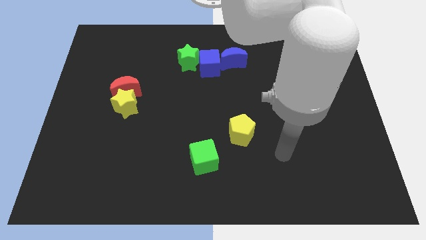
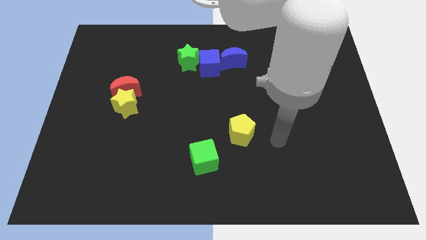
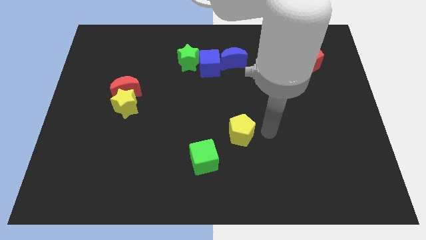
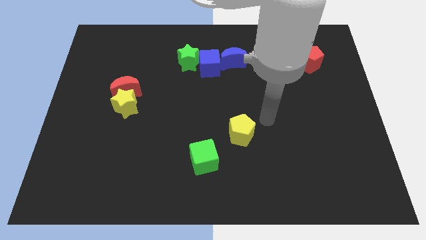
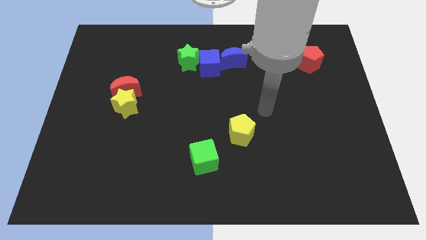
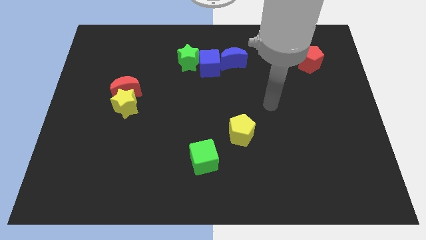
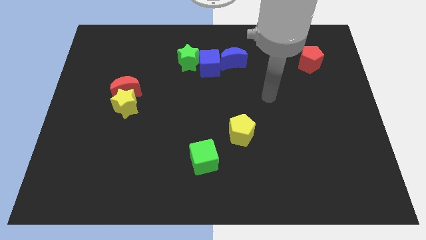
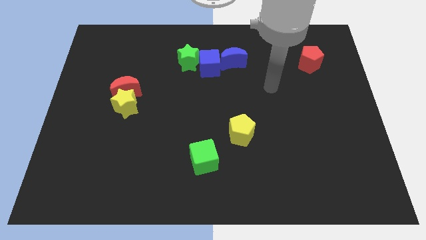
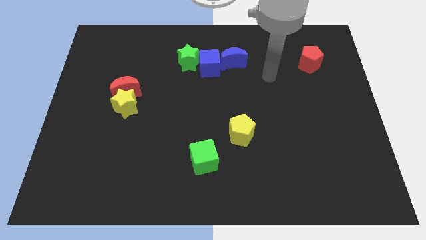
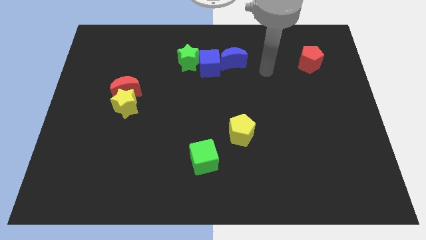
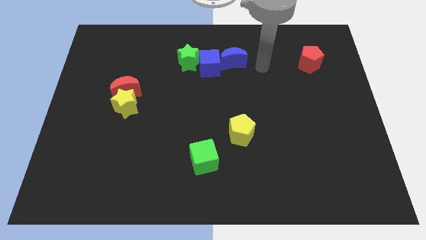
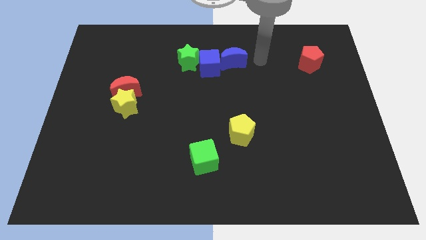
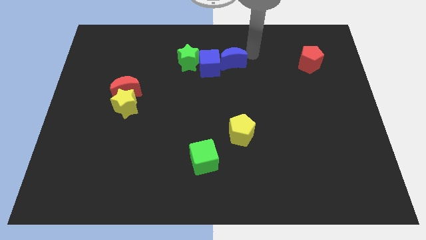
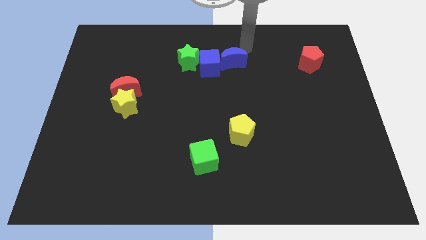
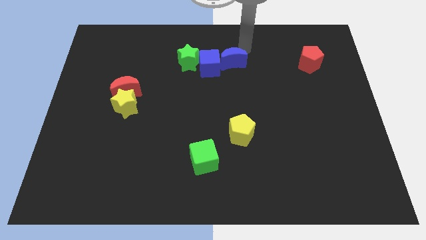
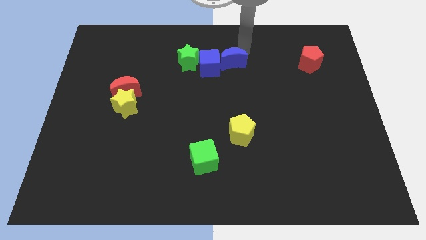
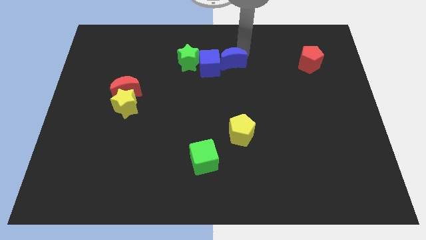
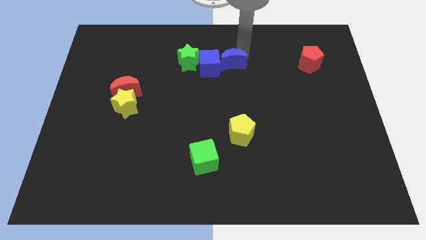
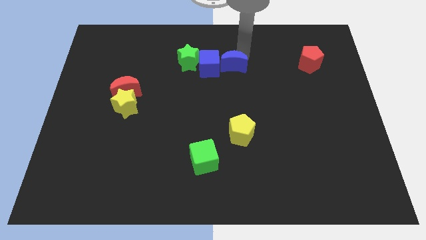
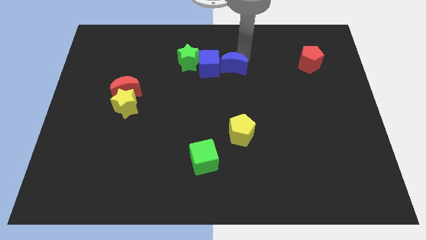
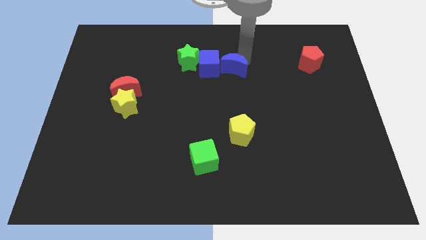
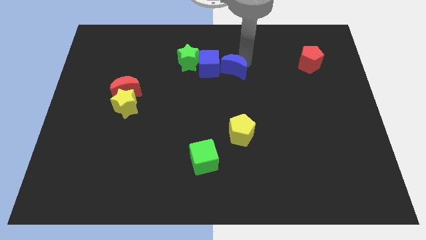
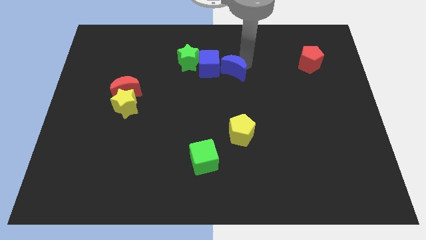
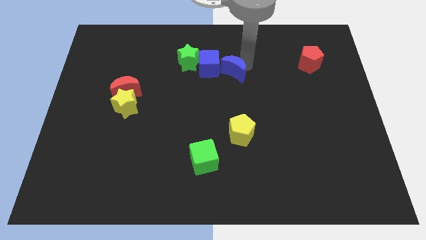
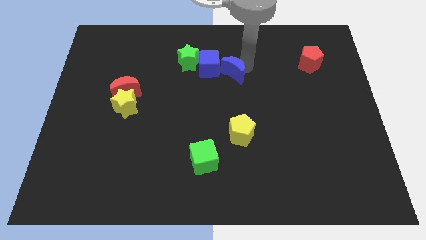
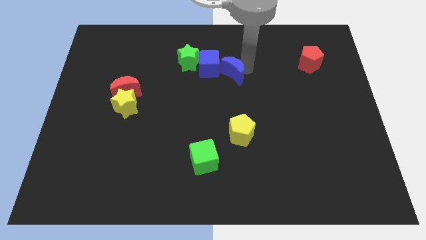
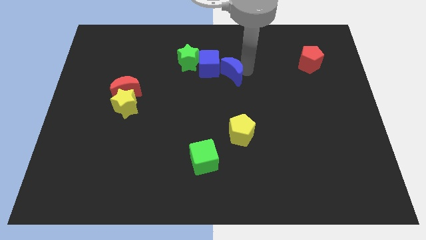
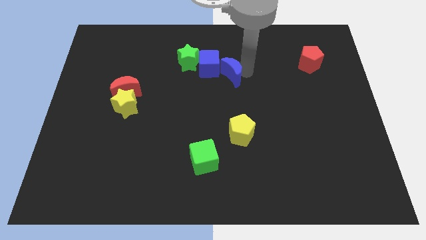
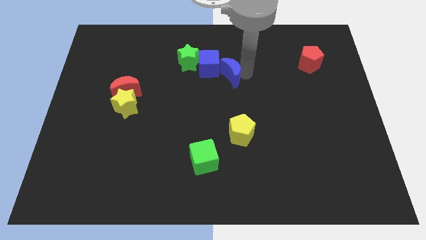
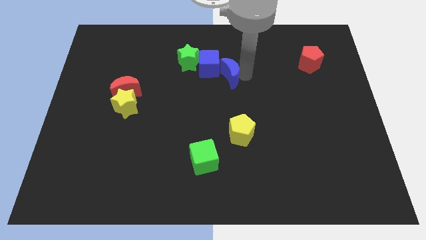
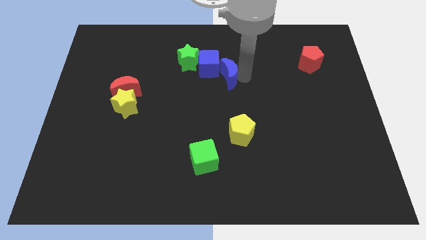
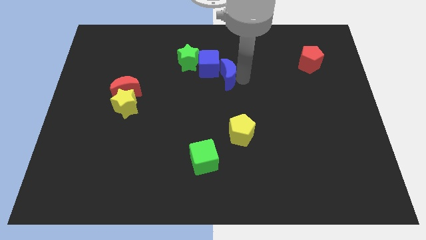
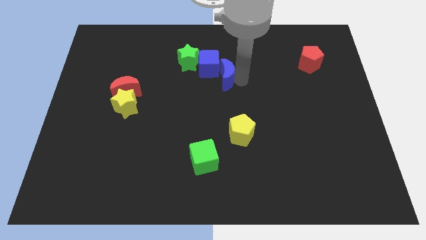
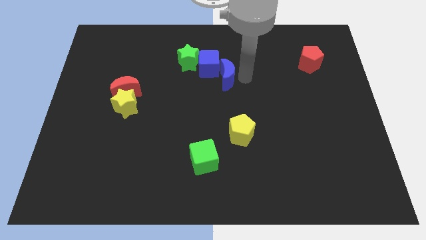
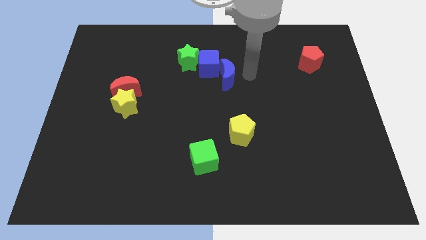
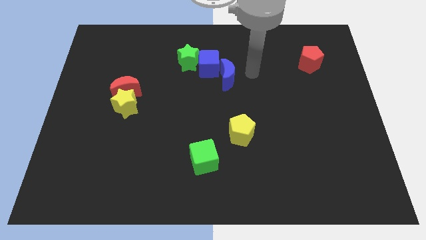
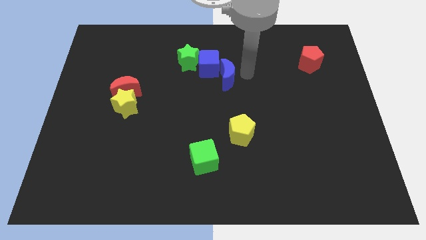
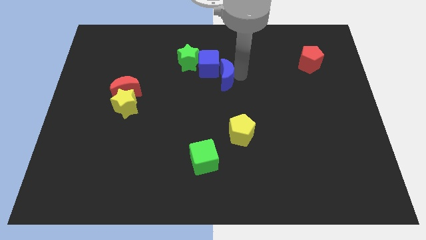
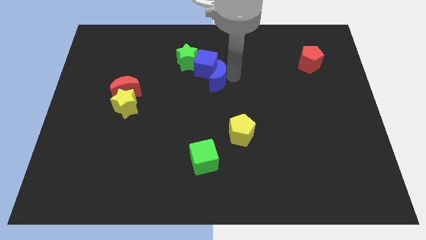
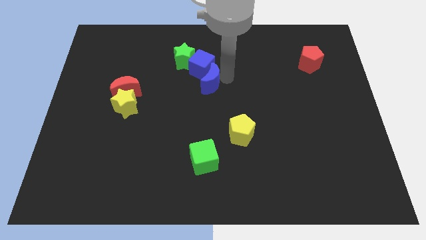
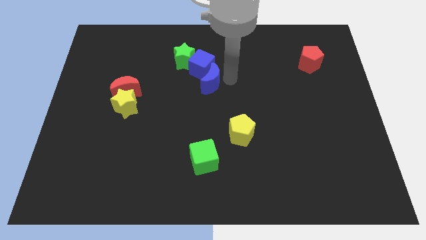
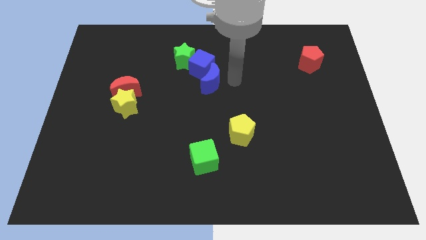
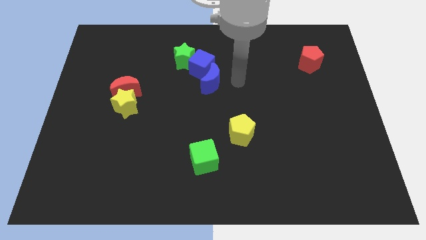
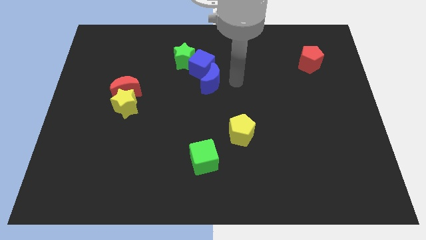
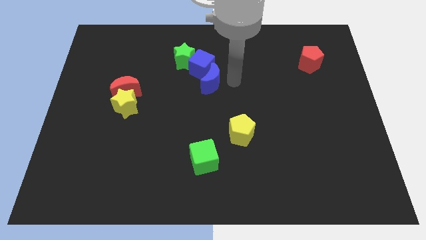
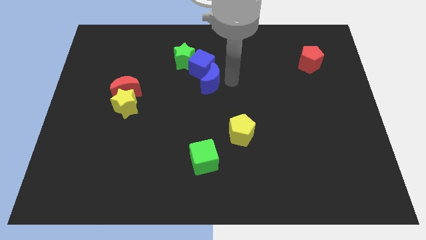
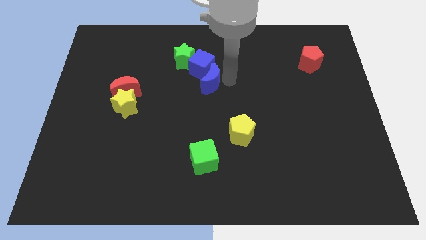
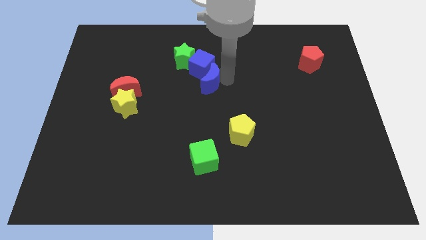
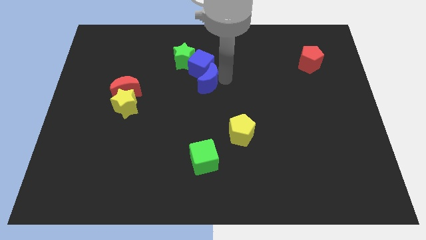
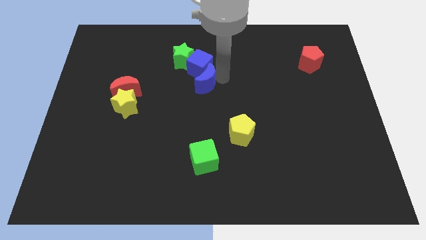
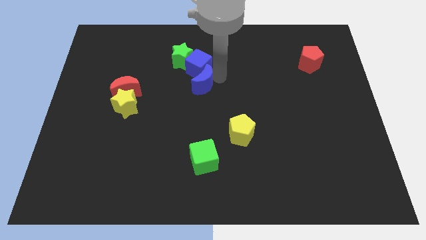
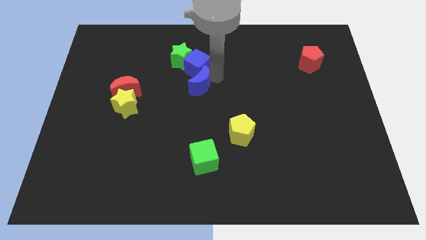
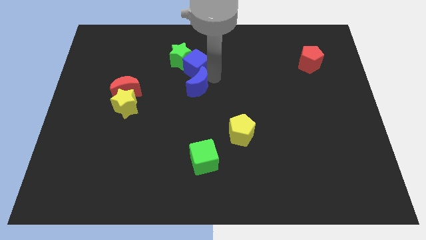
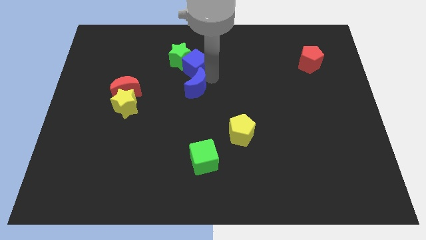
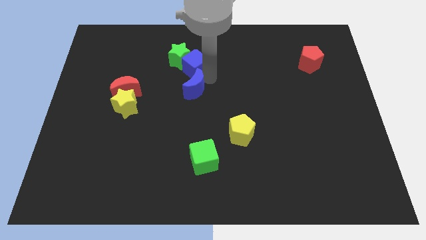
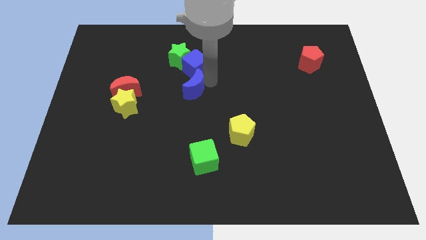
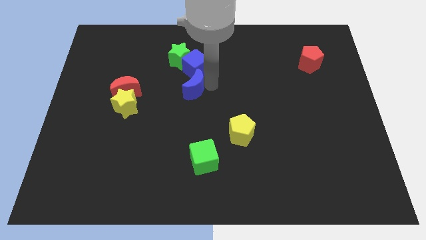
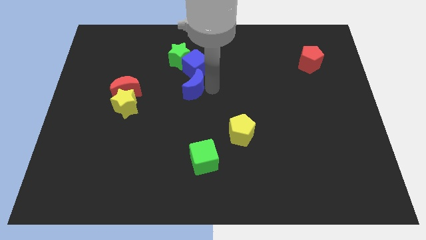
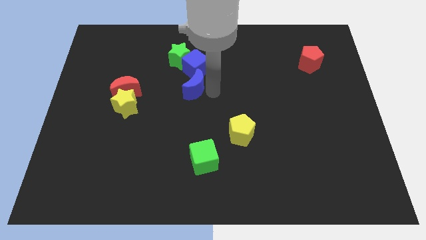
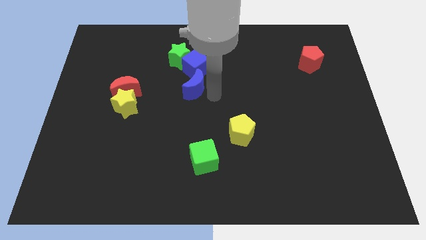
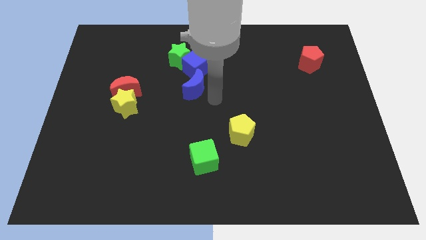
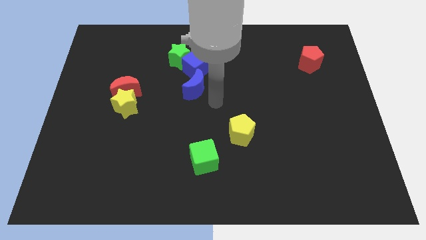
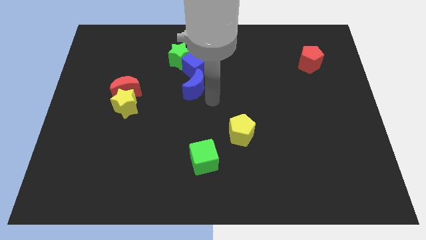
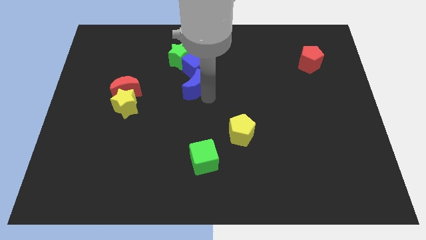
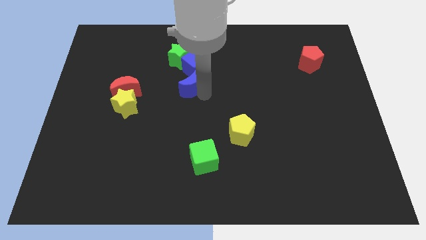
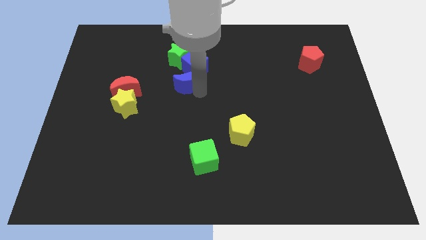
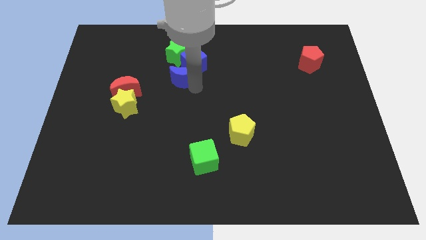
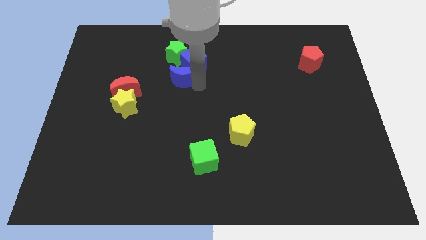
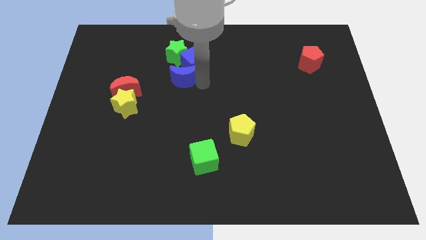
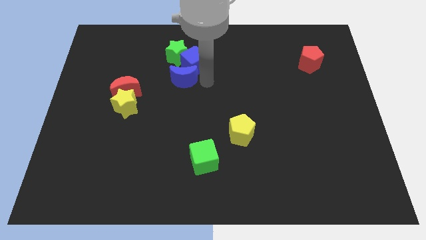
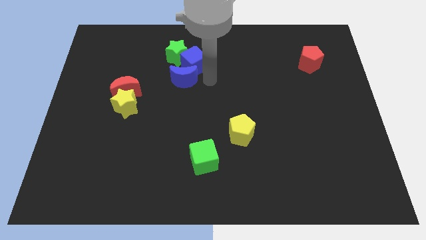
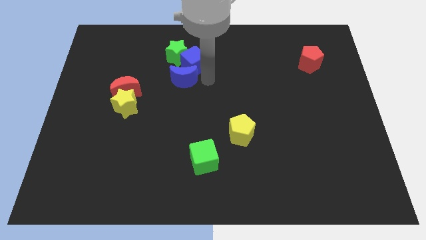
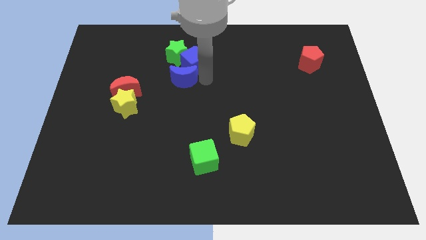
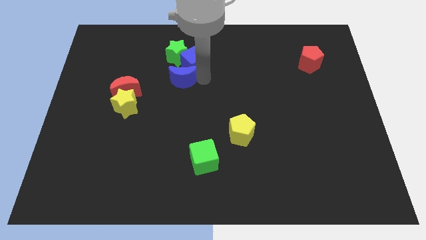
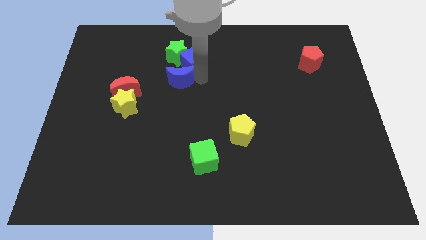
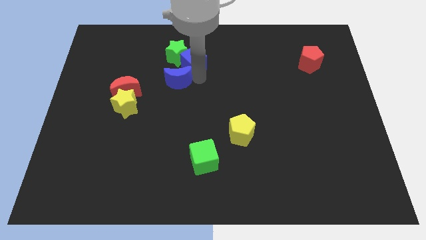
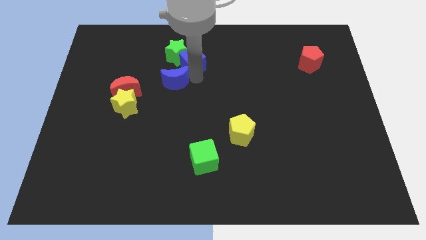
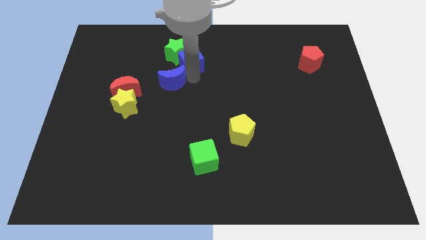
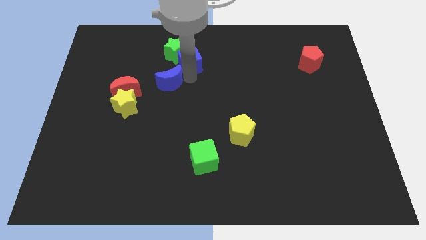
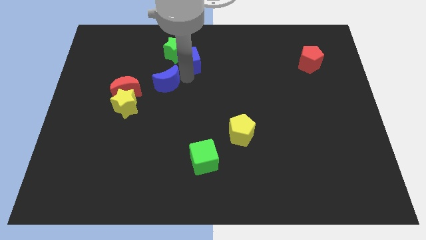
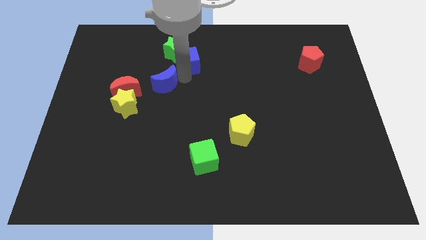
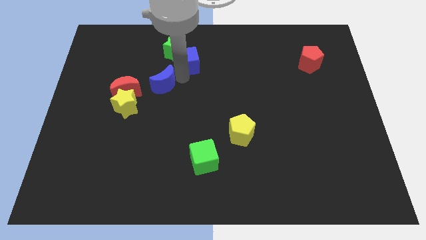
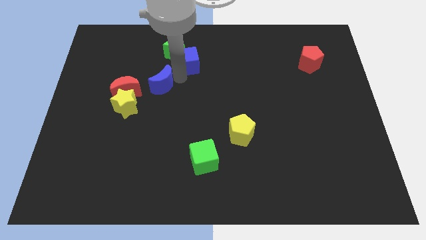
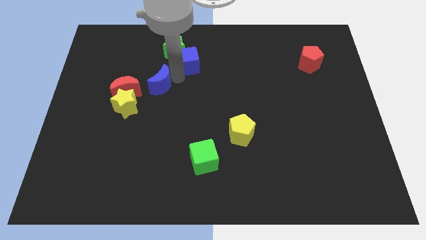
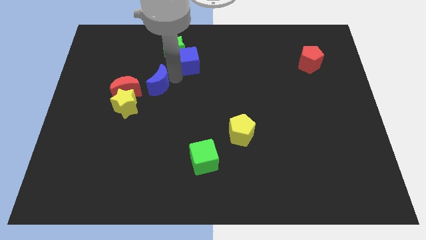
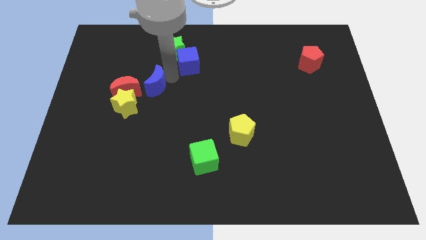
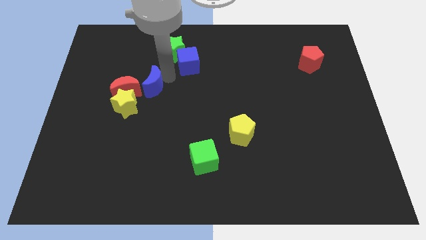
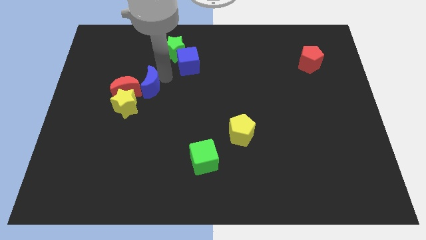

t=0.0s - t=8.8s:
put the blue moon next to the red moon
